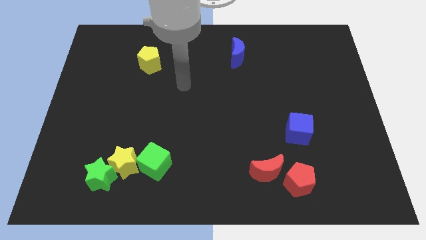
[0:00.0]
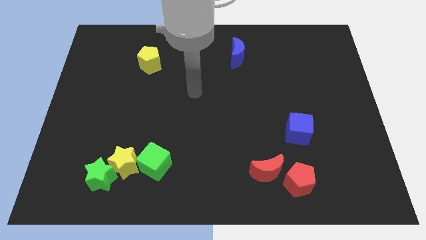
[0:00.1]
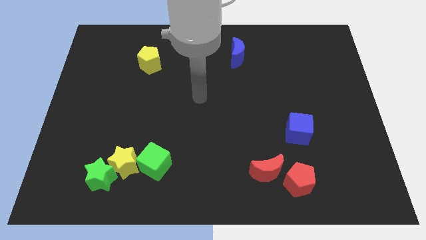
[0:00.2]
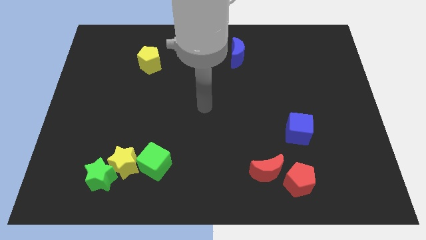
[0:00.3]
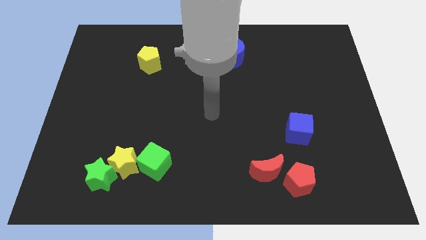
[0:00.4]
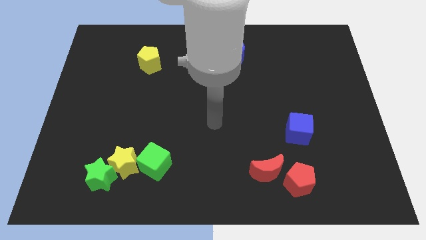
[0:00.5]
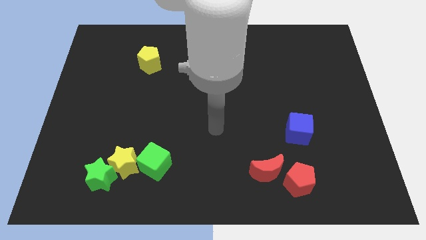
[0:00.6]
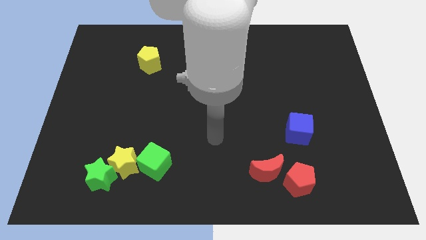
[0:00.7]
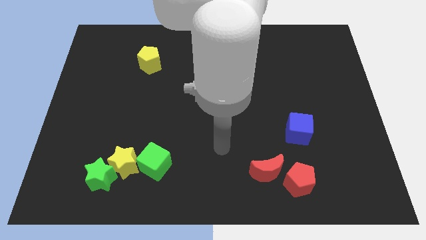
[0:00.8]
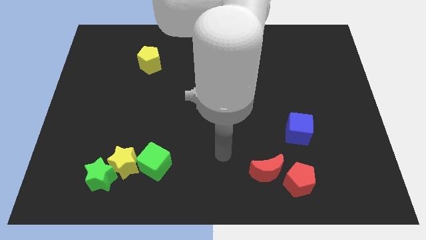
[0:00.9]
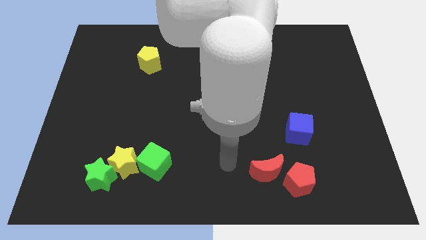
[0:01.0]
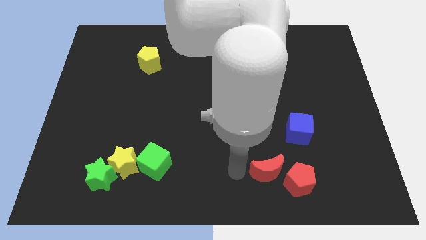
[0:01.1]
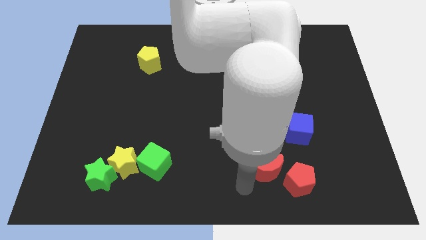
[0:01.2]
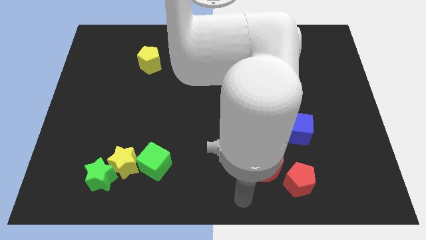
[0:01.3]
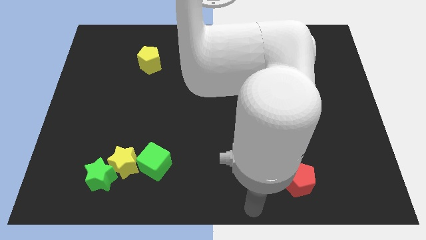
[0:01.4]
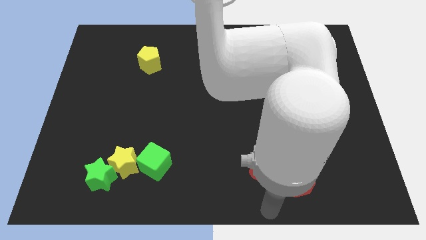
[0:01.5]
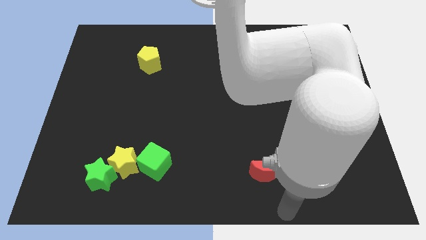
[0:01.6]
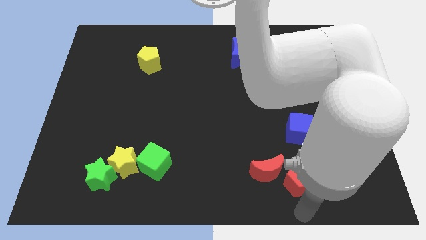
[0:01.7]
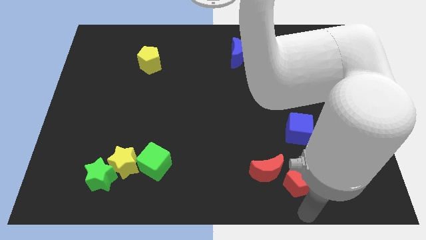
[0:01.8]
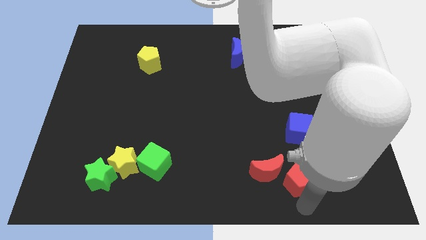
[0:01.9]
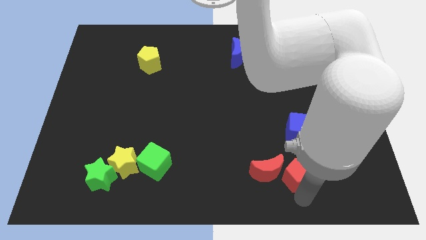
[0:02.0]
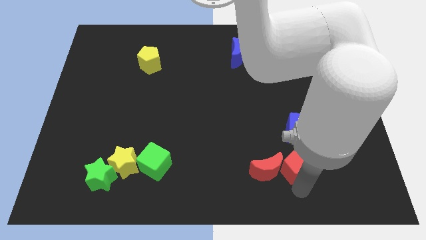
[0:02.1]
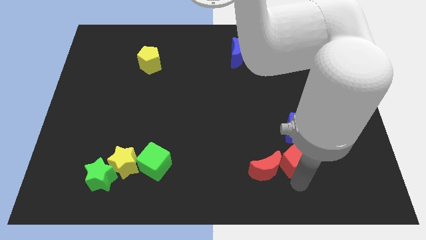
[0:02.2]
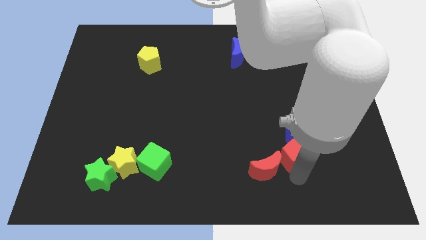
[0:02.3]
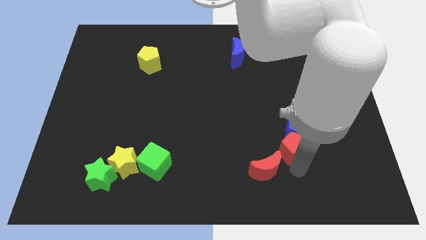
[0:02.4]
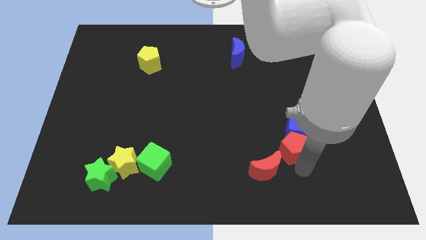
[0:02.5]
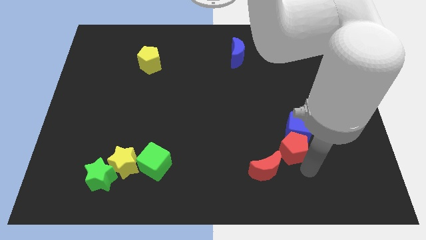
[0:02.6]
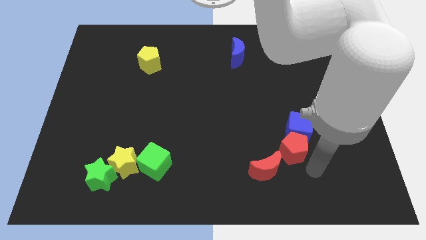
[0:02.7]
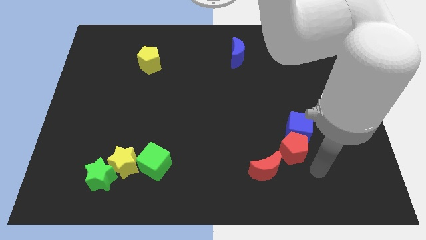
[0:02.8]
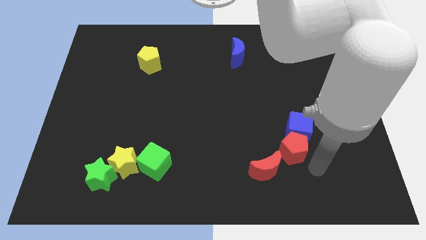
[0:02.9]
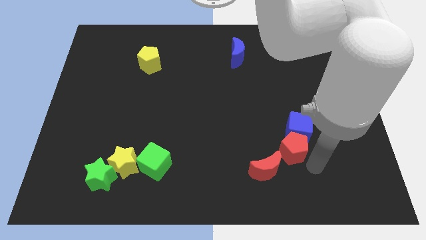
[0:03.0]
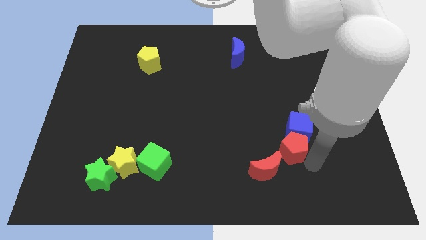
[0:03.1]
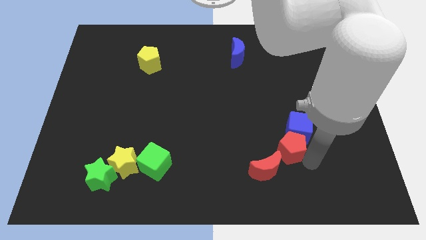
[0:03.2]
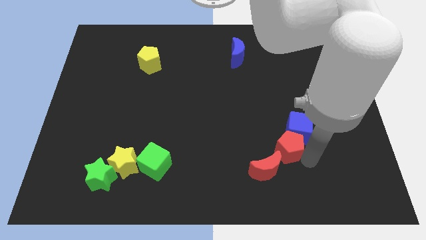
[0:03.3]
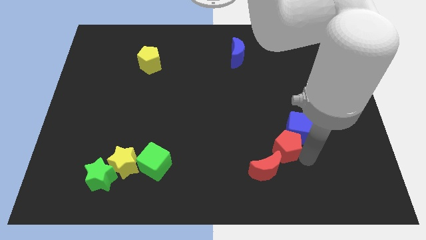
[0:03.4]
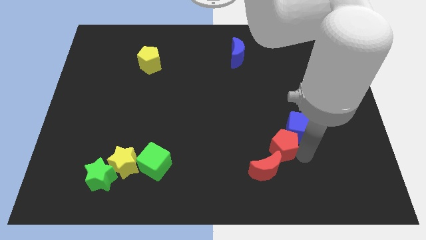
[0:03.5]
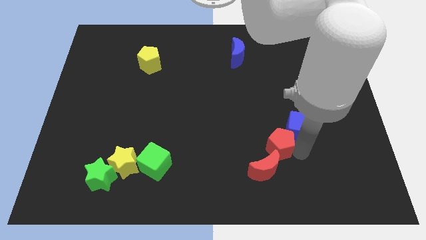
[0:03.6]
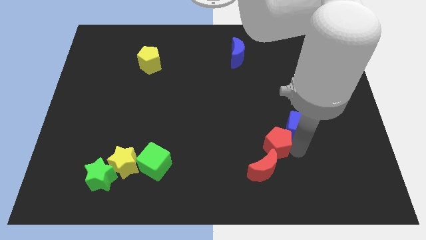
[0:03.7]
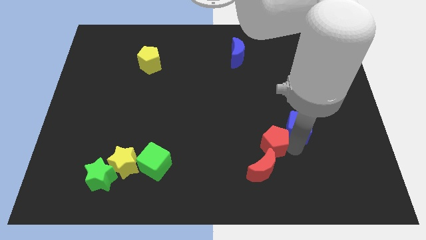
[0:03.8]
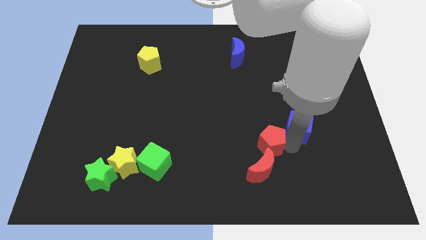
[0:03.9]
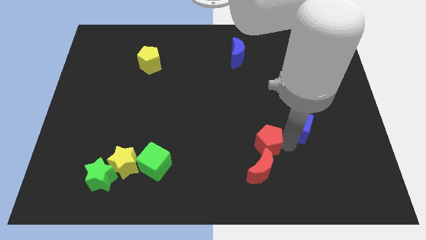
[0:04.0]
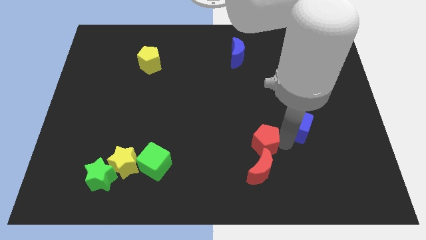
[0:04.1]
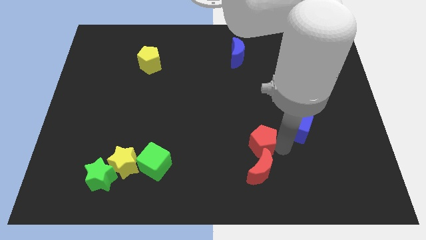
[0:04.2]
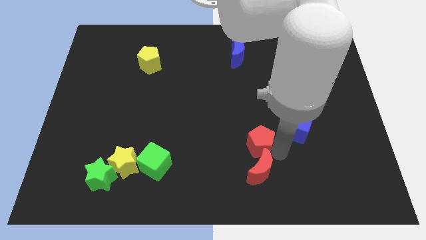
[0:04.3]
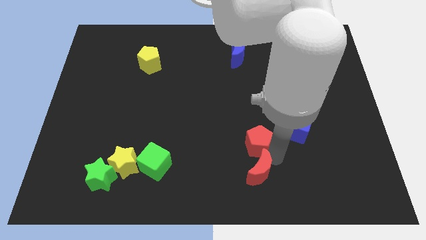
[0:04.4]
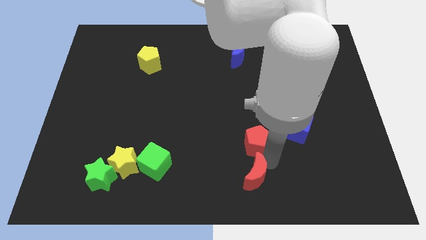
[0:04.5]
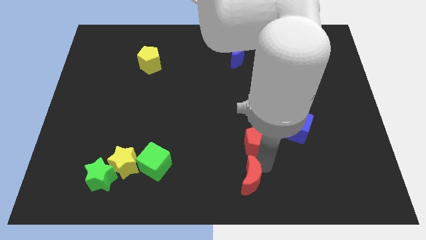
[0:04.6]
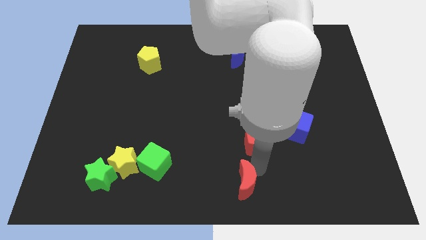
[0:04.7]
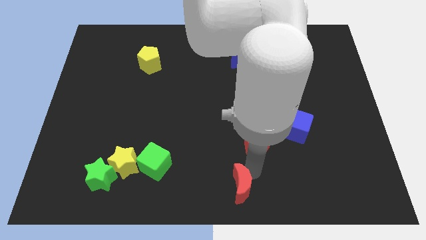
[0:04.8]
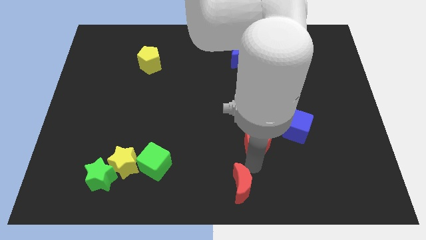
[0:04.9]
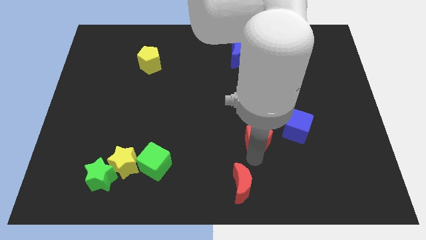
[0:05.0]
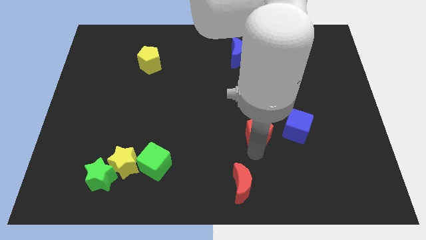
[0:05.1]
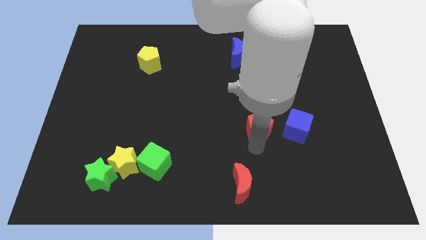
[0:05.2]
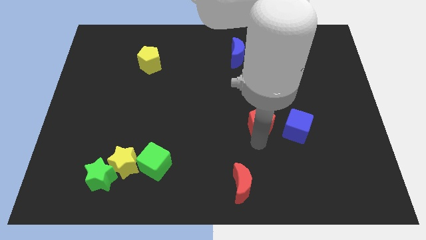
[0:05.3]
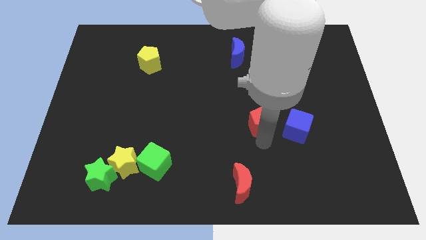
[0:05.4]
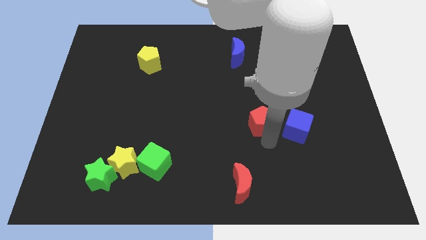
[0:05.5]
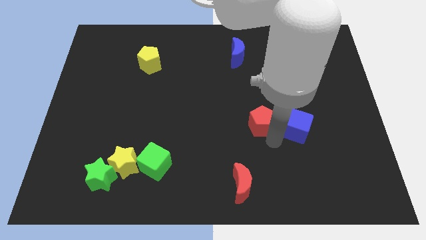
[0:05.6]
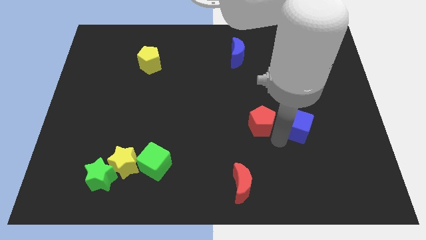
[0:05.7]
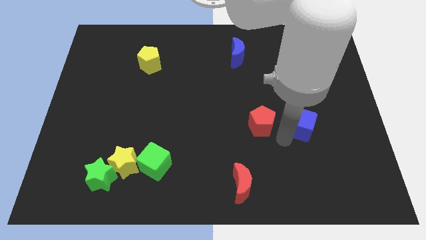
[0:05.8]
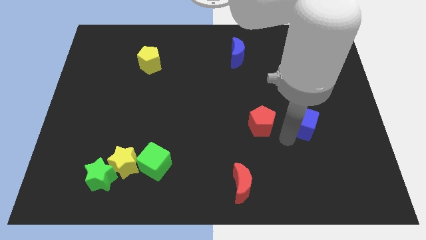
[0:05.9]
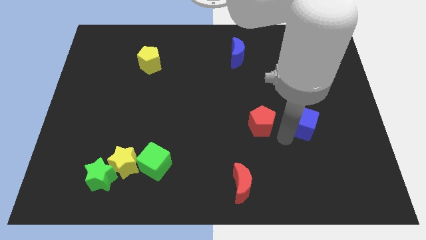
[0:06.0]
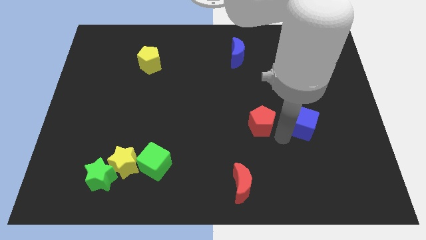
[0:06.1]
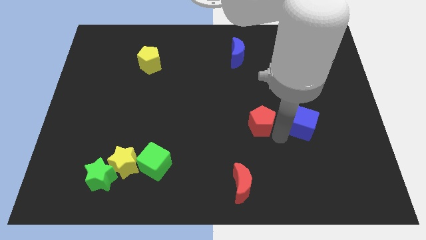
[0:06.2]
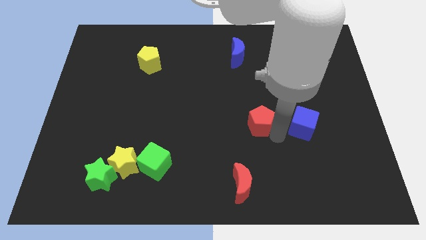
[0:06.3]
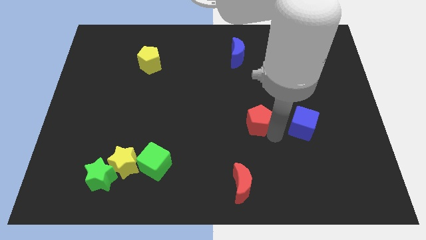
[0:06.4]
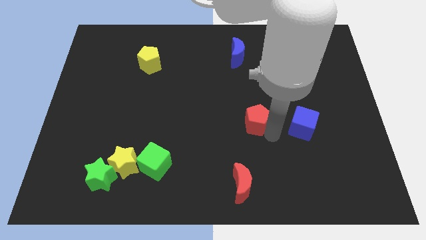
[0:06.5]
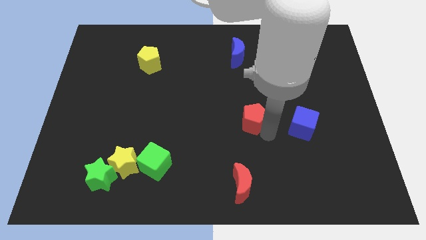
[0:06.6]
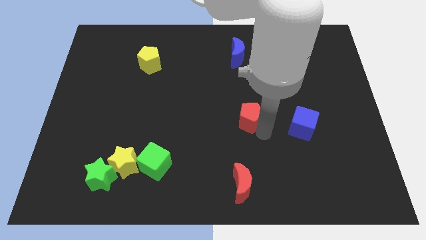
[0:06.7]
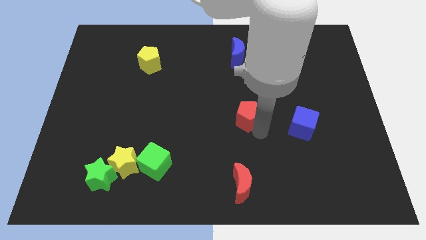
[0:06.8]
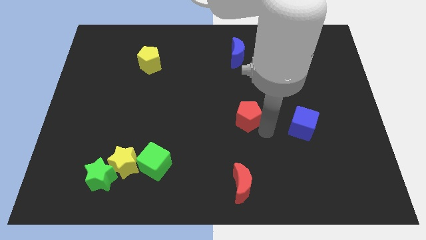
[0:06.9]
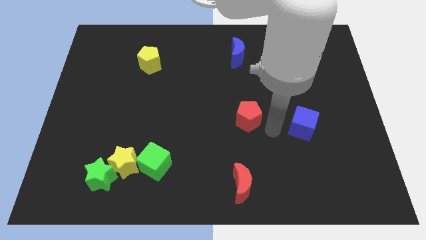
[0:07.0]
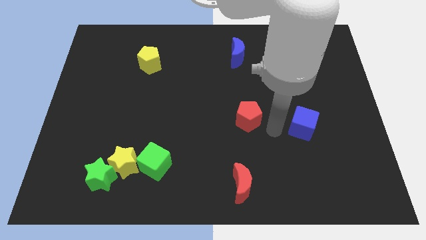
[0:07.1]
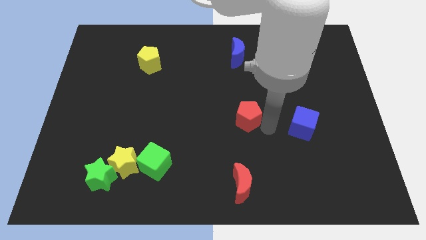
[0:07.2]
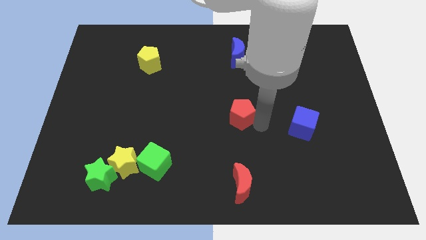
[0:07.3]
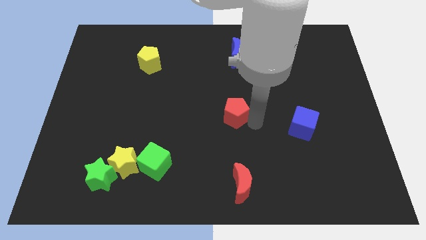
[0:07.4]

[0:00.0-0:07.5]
move the red pentagon diagonally up and left

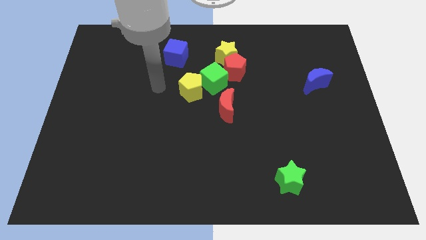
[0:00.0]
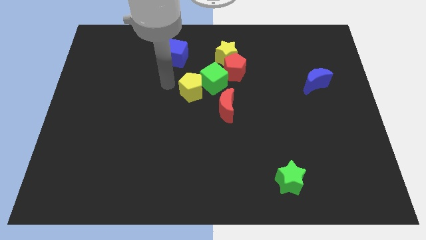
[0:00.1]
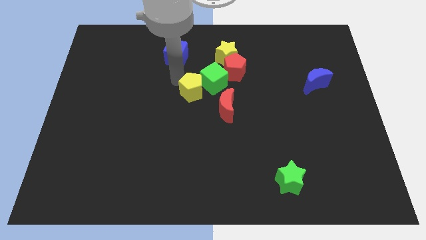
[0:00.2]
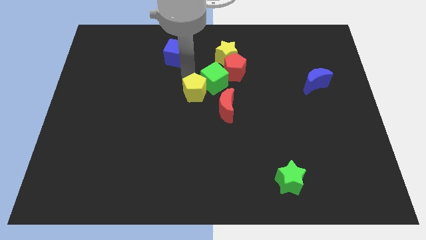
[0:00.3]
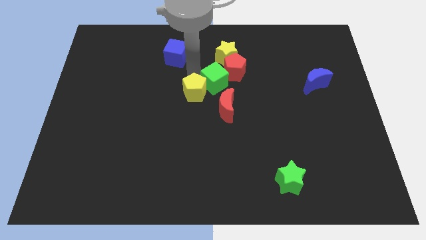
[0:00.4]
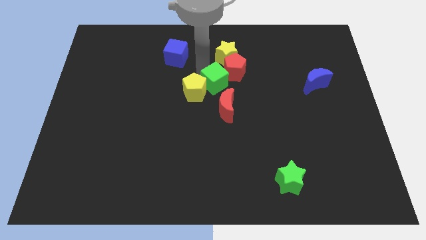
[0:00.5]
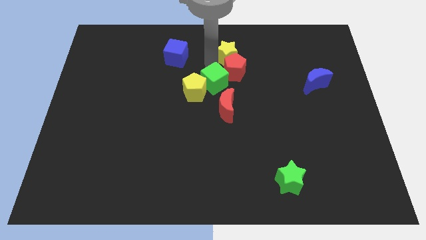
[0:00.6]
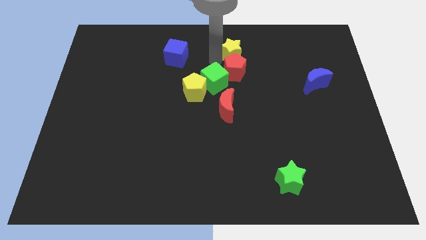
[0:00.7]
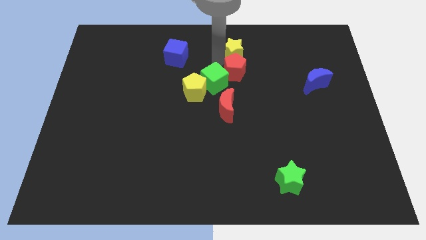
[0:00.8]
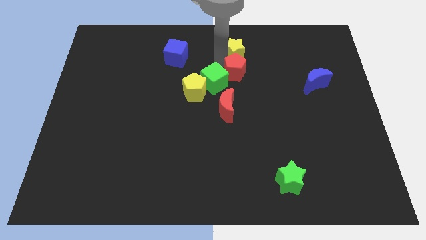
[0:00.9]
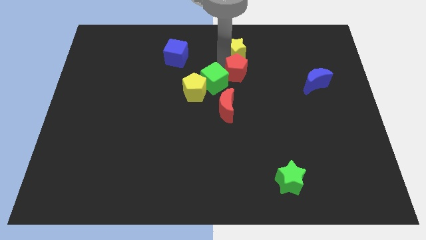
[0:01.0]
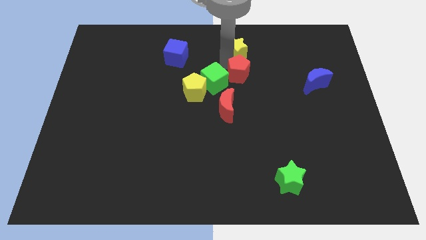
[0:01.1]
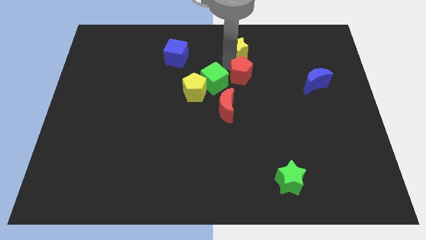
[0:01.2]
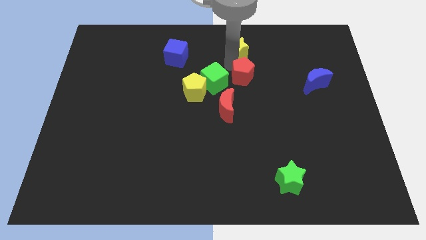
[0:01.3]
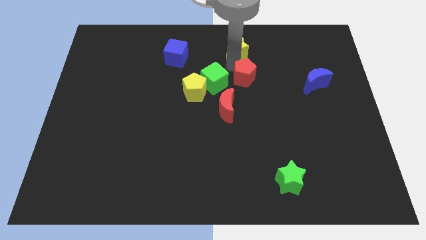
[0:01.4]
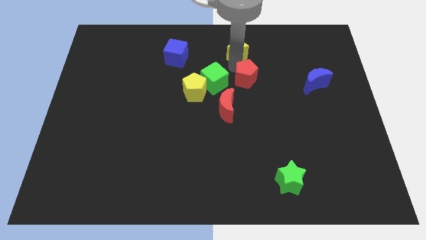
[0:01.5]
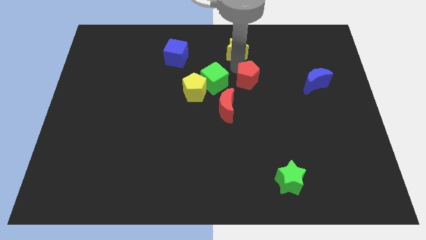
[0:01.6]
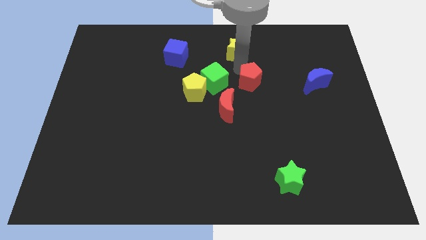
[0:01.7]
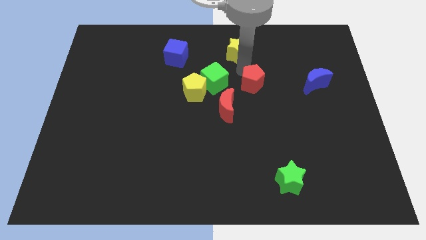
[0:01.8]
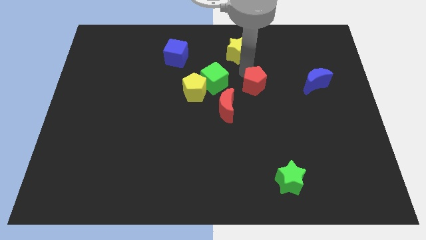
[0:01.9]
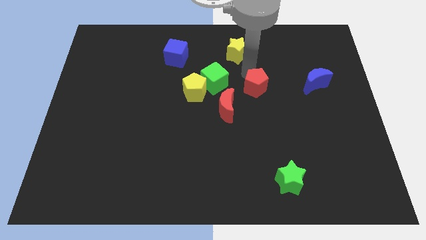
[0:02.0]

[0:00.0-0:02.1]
push the red pentagon down and right diagonally a bit
